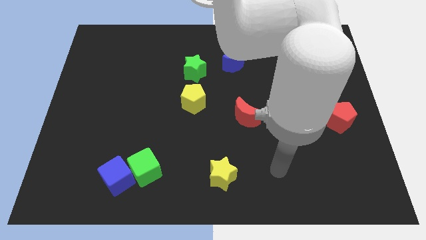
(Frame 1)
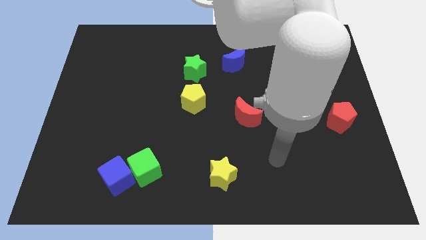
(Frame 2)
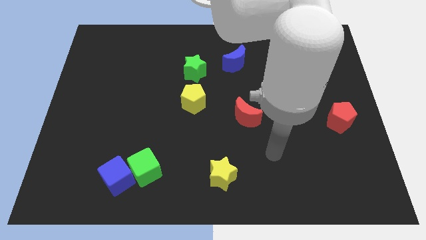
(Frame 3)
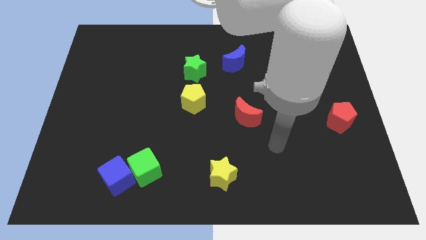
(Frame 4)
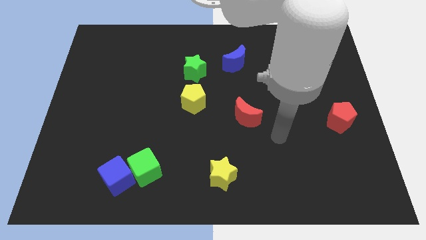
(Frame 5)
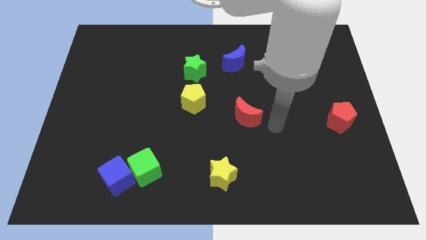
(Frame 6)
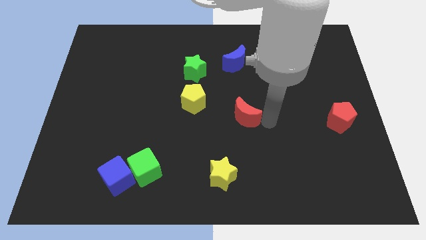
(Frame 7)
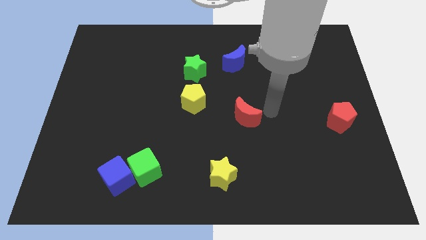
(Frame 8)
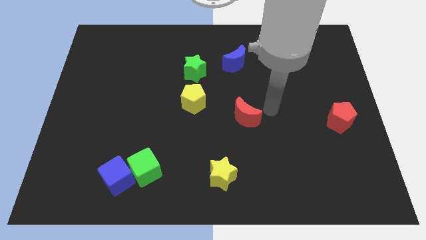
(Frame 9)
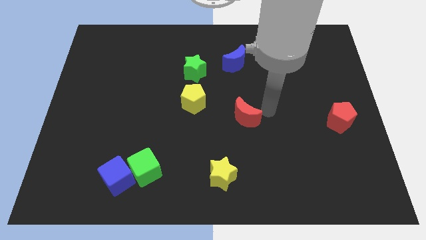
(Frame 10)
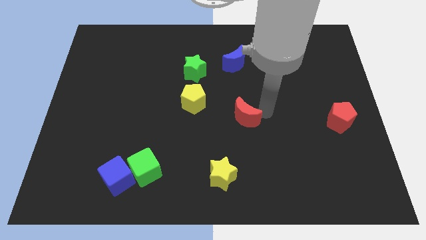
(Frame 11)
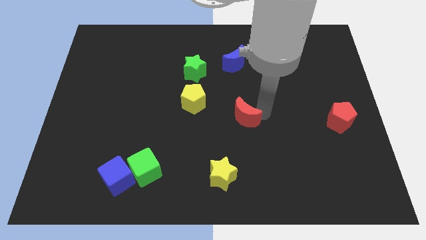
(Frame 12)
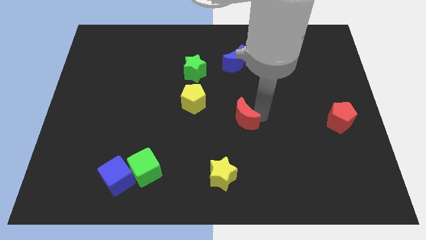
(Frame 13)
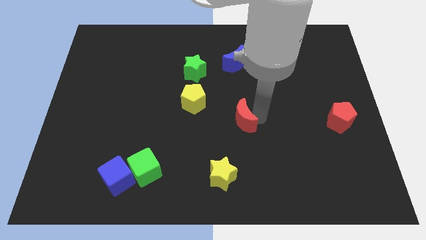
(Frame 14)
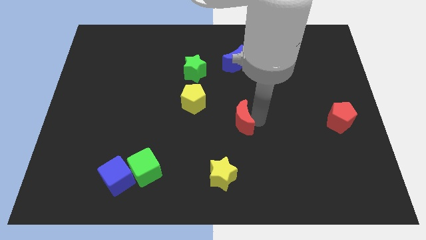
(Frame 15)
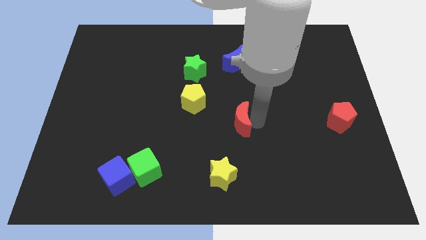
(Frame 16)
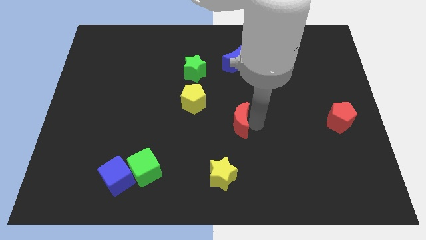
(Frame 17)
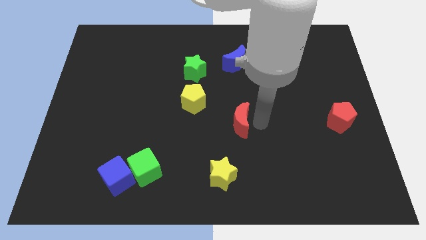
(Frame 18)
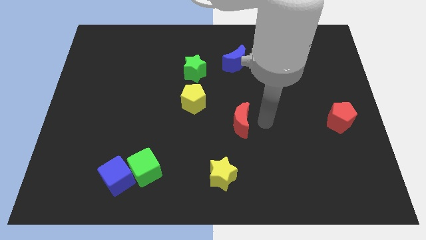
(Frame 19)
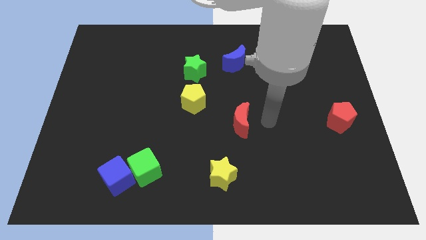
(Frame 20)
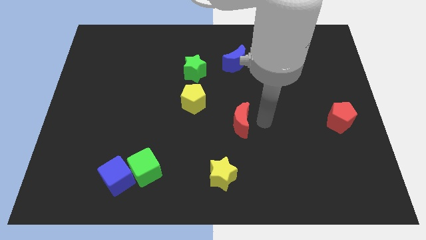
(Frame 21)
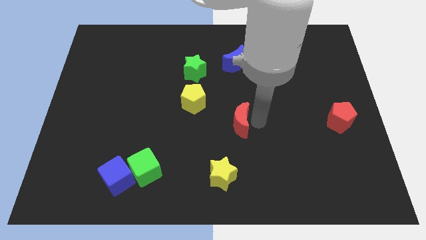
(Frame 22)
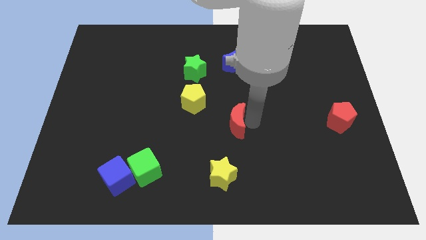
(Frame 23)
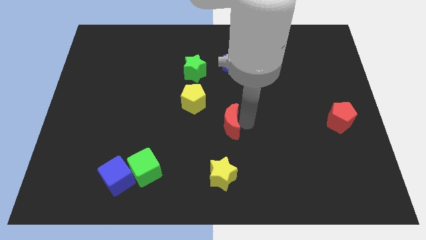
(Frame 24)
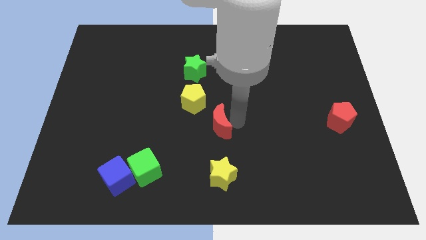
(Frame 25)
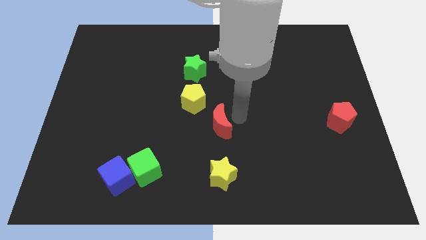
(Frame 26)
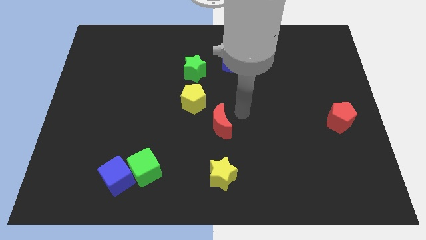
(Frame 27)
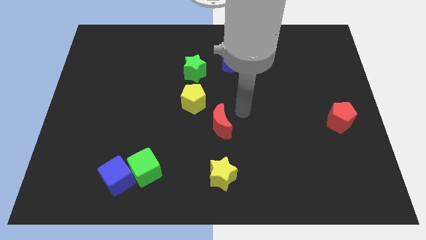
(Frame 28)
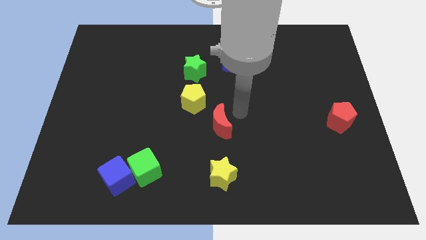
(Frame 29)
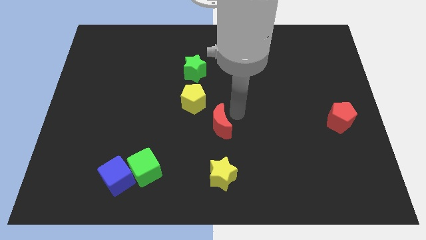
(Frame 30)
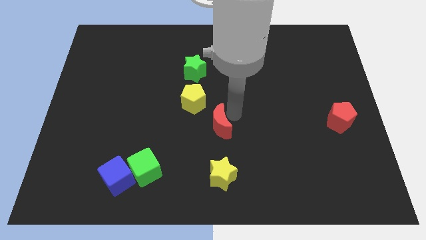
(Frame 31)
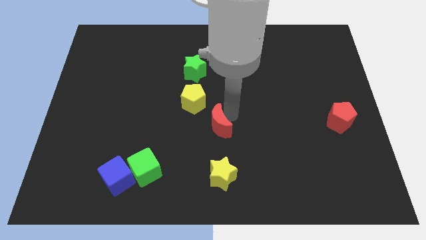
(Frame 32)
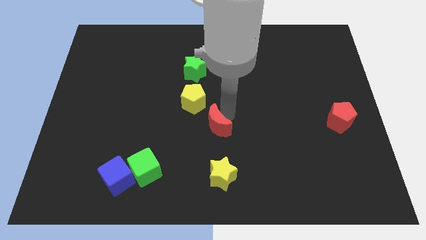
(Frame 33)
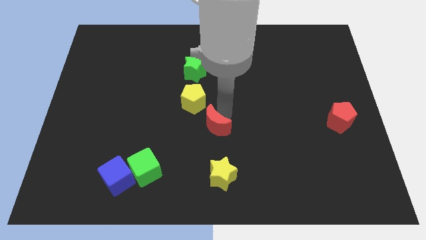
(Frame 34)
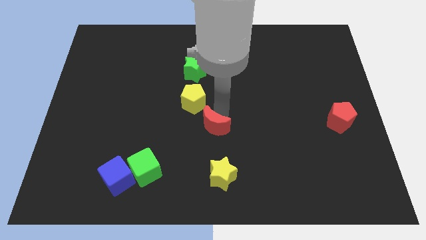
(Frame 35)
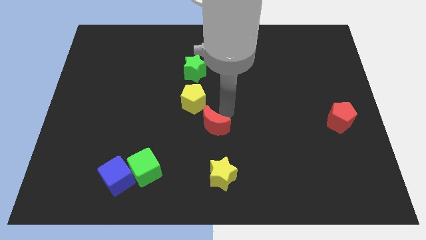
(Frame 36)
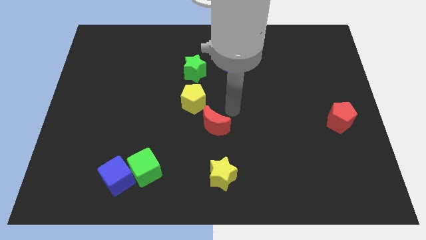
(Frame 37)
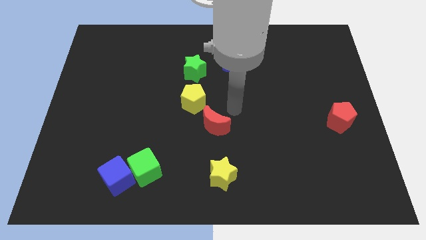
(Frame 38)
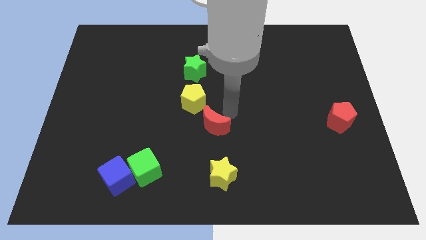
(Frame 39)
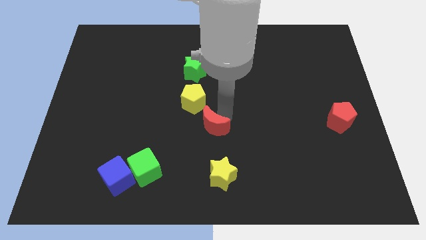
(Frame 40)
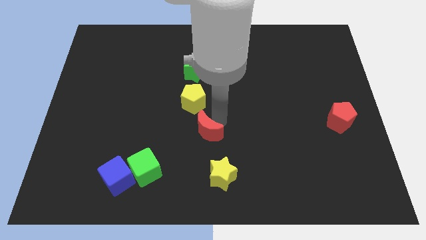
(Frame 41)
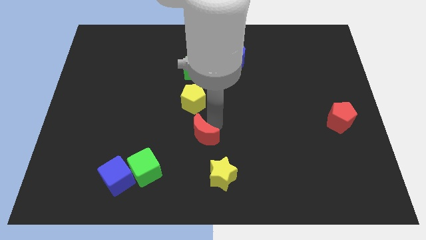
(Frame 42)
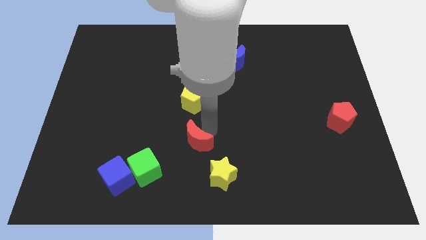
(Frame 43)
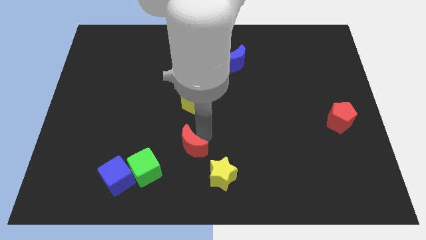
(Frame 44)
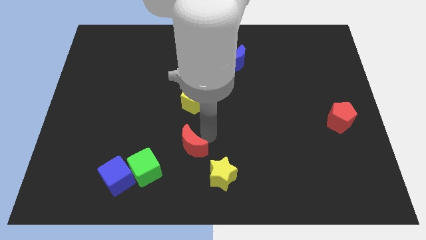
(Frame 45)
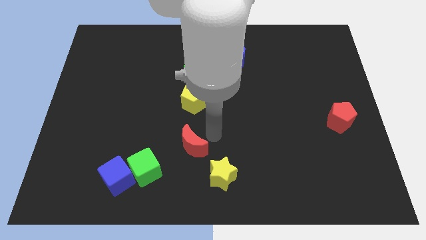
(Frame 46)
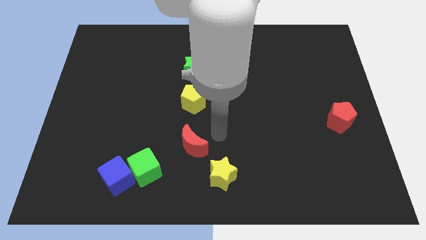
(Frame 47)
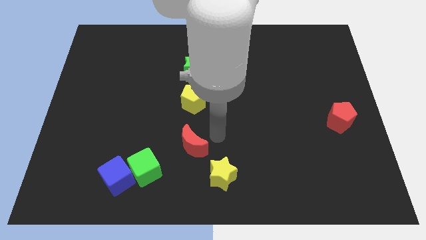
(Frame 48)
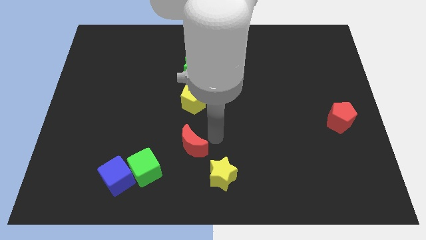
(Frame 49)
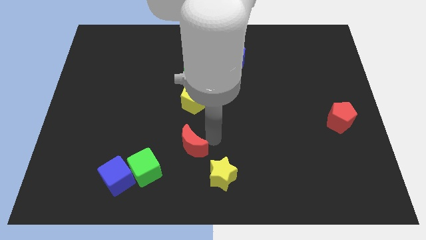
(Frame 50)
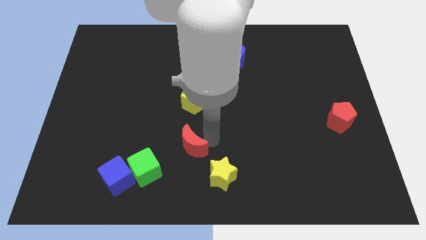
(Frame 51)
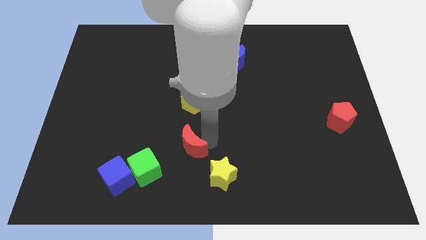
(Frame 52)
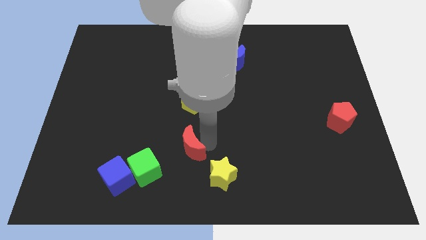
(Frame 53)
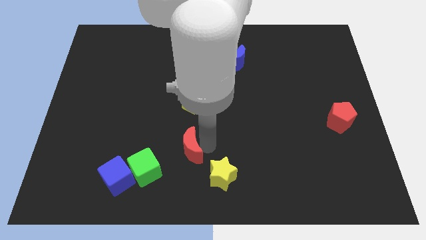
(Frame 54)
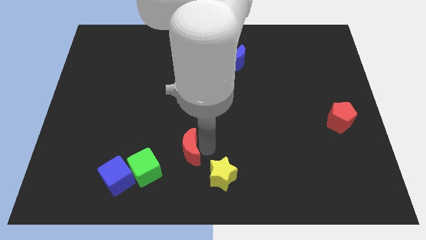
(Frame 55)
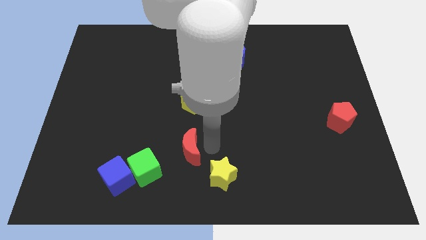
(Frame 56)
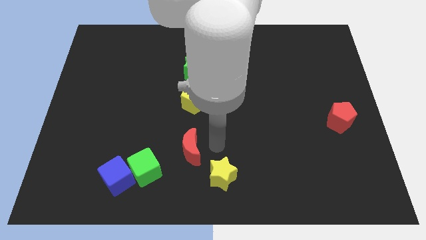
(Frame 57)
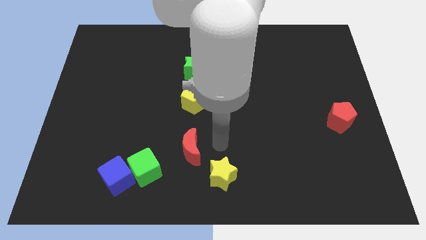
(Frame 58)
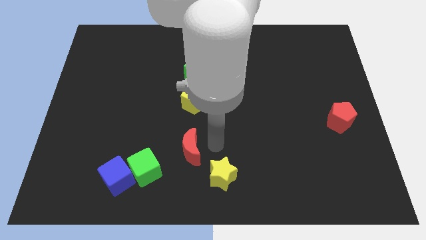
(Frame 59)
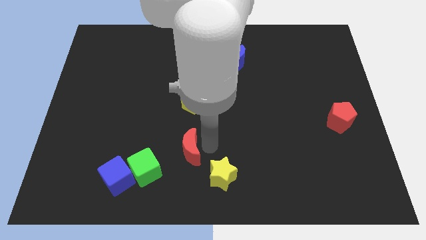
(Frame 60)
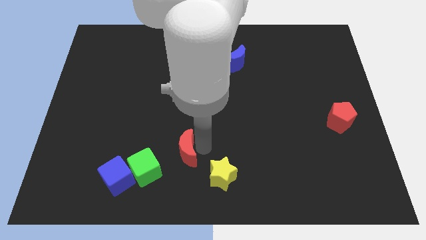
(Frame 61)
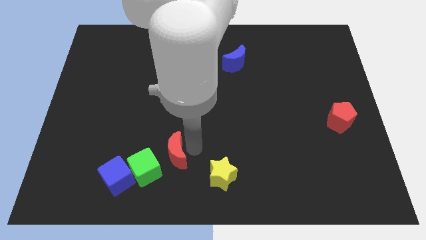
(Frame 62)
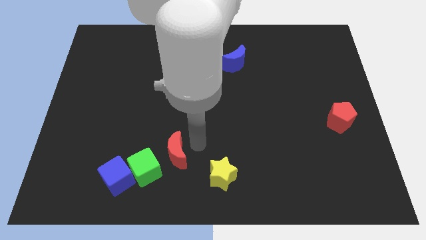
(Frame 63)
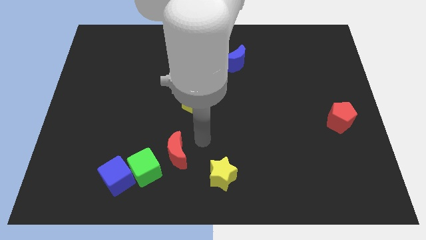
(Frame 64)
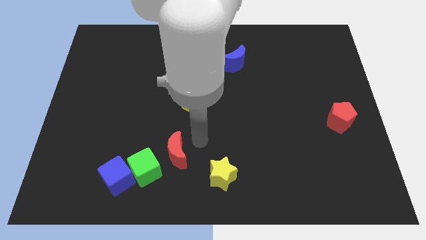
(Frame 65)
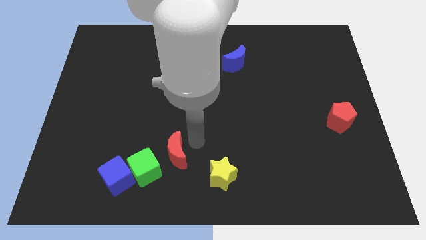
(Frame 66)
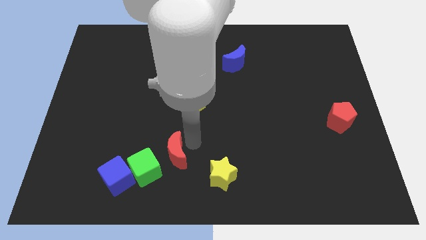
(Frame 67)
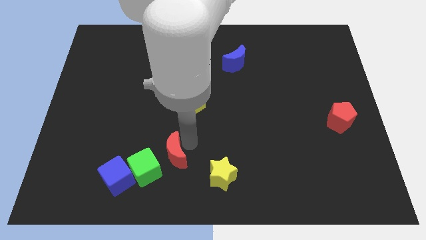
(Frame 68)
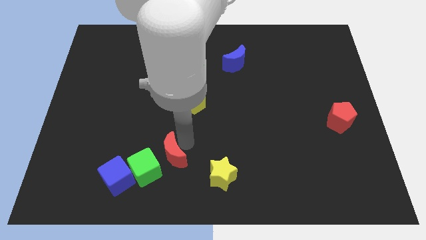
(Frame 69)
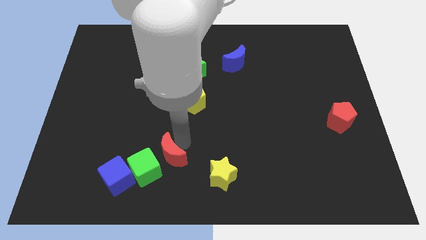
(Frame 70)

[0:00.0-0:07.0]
slide the red moon towards the green cube
